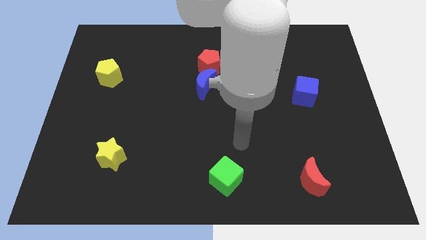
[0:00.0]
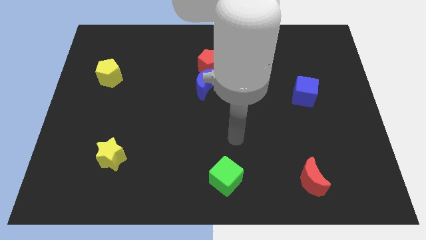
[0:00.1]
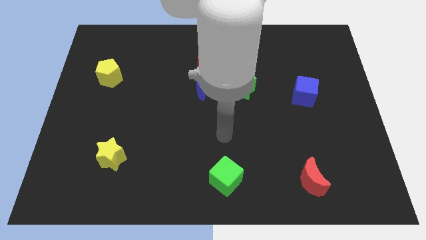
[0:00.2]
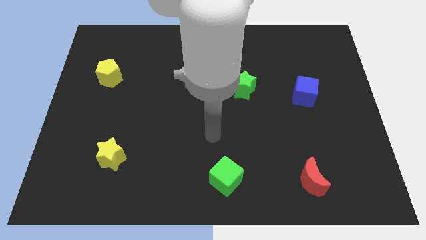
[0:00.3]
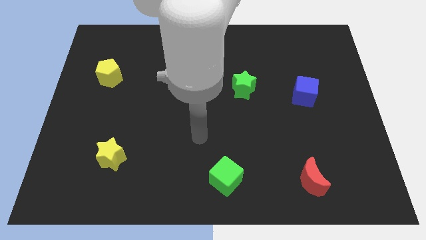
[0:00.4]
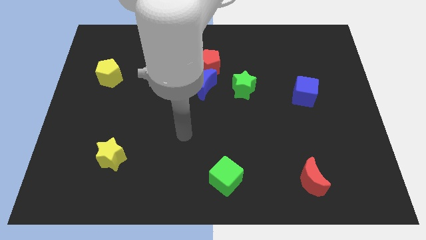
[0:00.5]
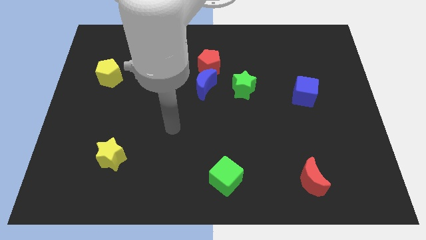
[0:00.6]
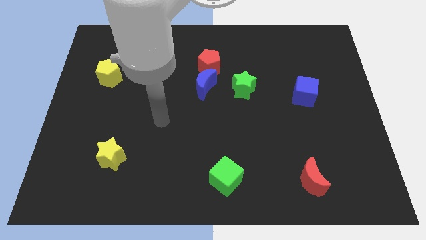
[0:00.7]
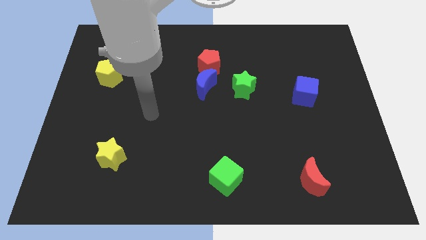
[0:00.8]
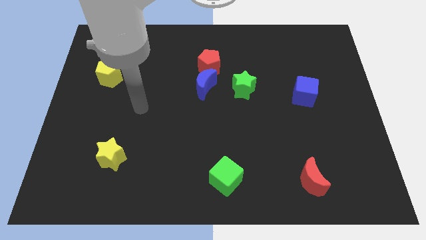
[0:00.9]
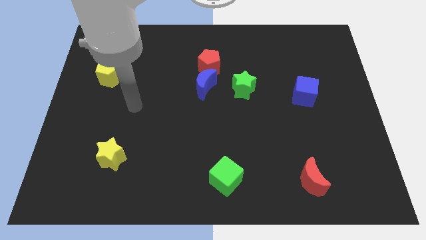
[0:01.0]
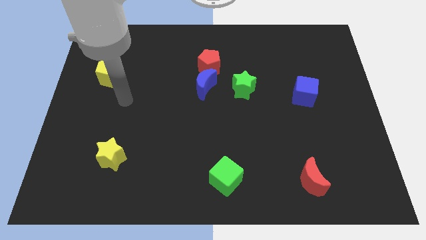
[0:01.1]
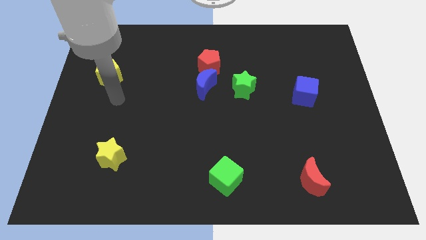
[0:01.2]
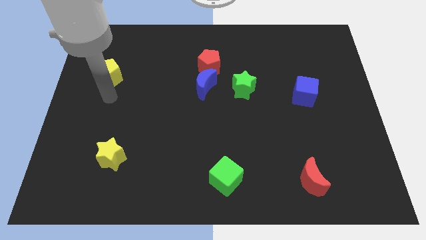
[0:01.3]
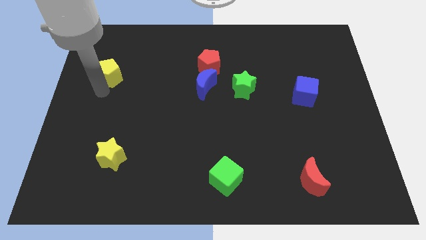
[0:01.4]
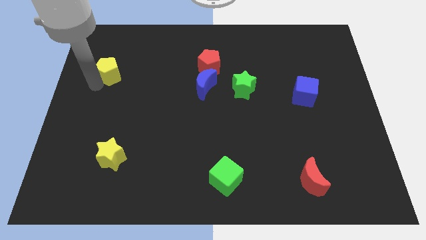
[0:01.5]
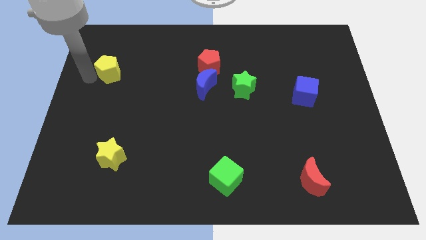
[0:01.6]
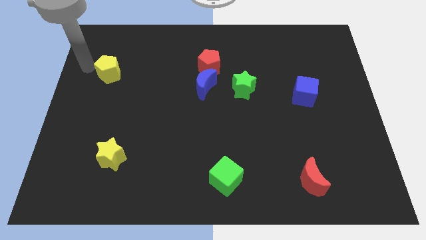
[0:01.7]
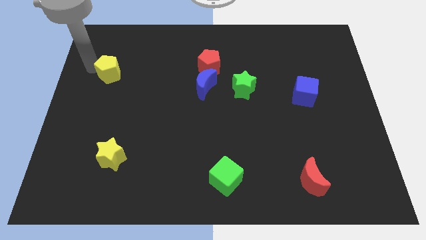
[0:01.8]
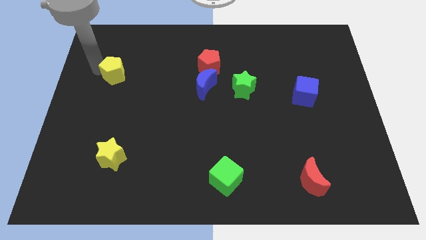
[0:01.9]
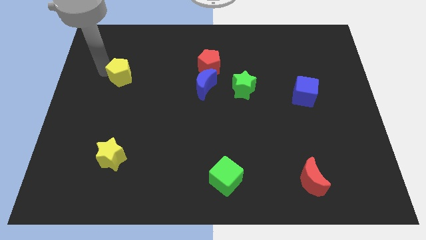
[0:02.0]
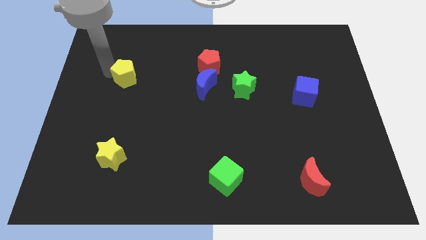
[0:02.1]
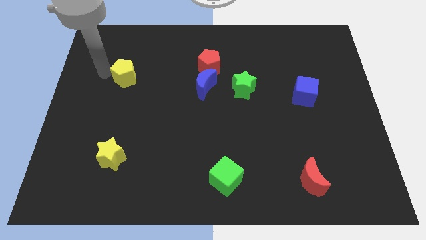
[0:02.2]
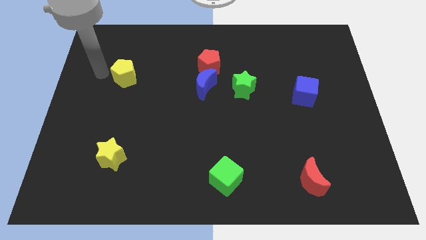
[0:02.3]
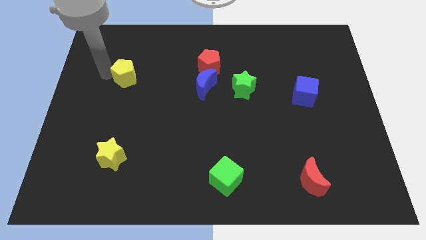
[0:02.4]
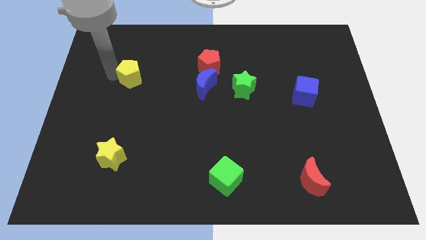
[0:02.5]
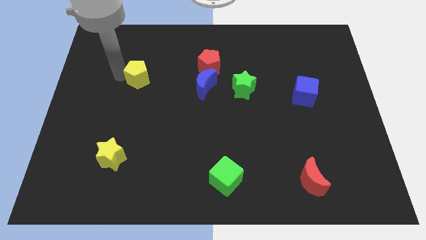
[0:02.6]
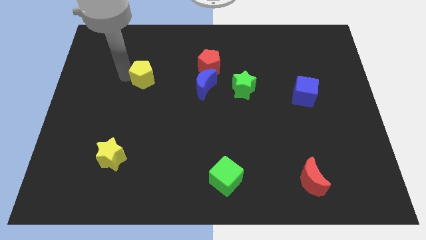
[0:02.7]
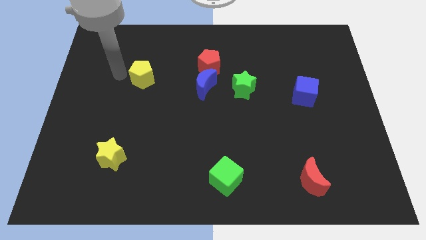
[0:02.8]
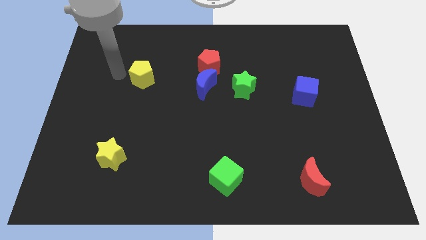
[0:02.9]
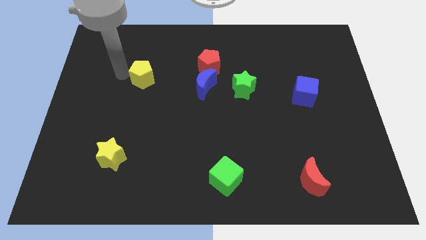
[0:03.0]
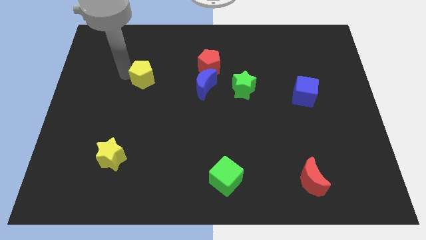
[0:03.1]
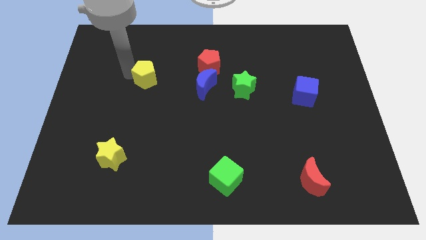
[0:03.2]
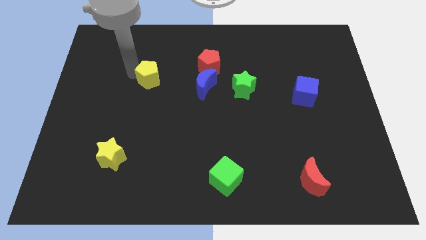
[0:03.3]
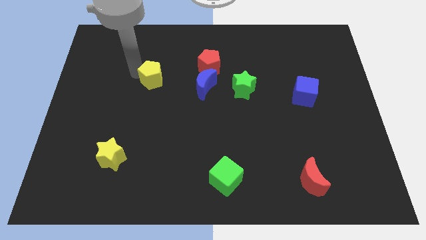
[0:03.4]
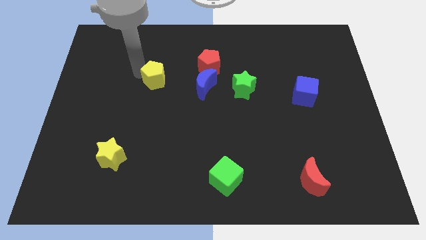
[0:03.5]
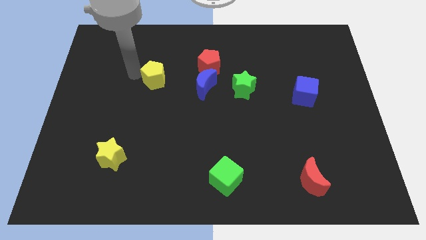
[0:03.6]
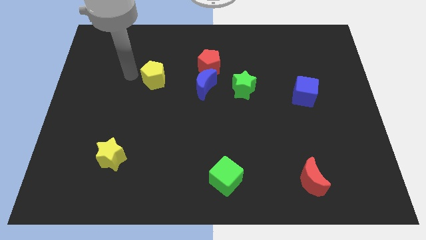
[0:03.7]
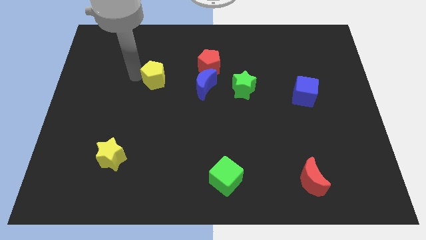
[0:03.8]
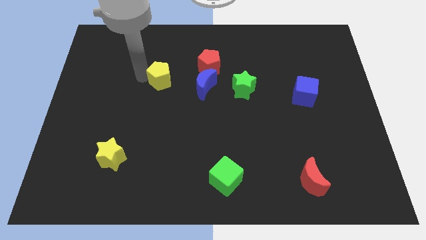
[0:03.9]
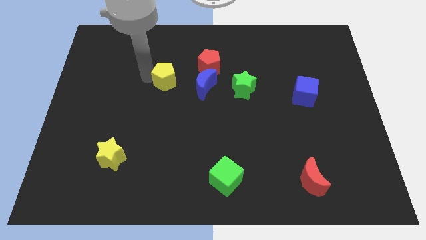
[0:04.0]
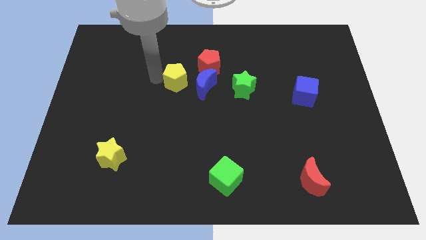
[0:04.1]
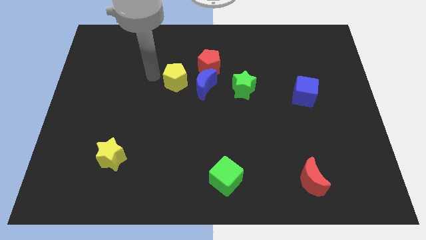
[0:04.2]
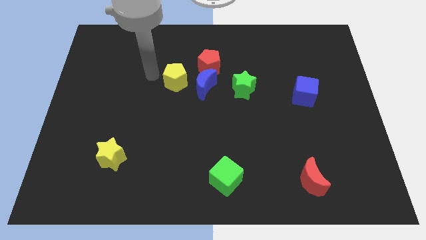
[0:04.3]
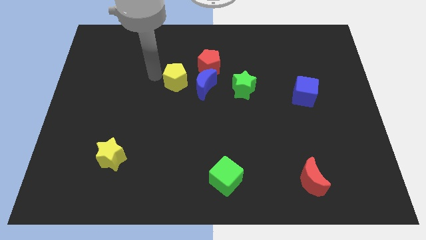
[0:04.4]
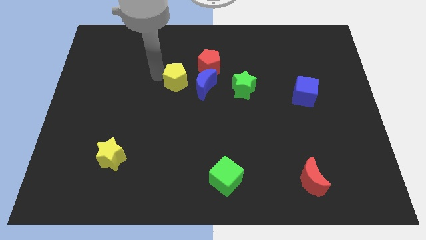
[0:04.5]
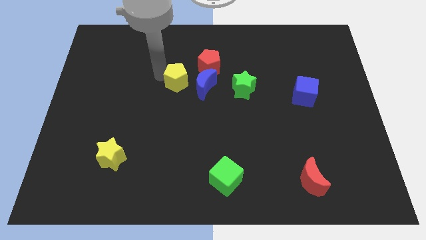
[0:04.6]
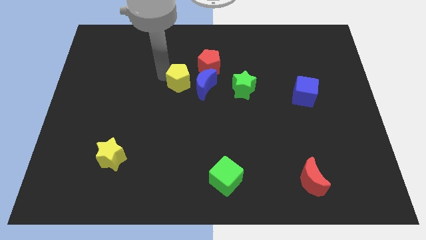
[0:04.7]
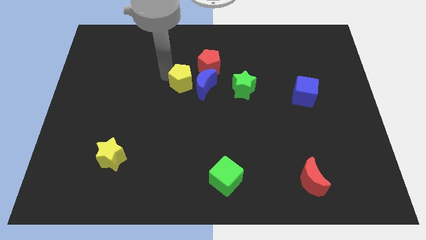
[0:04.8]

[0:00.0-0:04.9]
move the yellow pentagon close to the blue moon

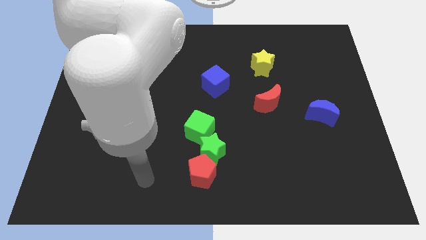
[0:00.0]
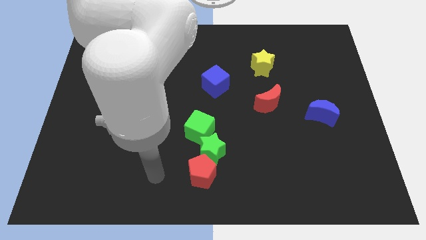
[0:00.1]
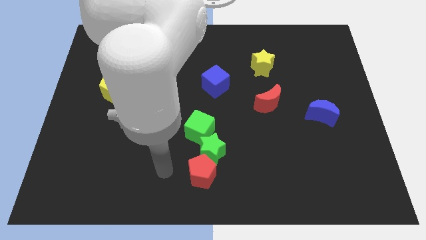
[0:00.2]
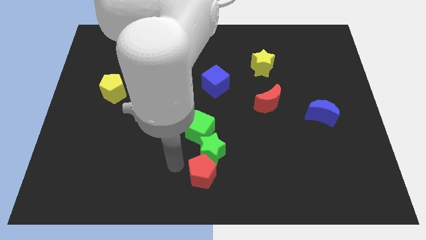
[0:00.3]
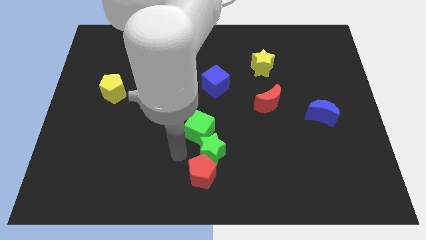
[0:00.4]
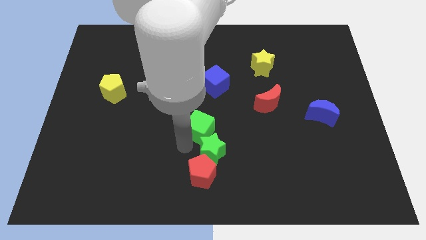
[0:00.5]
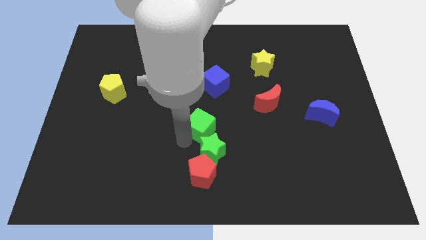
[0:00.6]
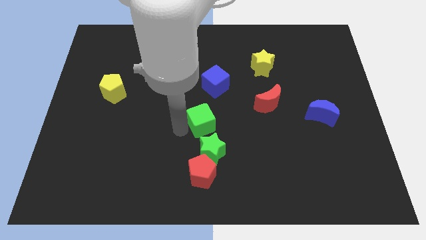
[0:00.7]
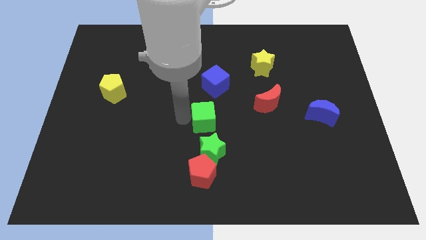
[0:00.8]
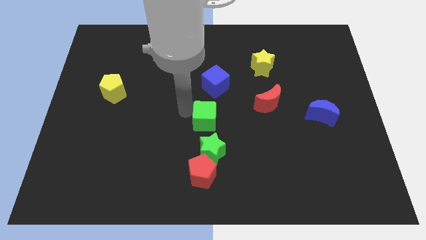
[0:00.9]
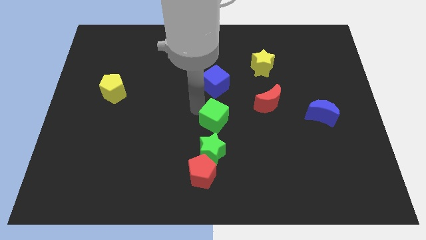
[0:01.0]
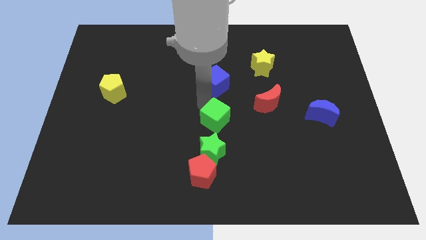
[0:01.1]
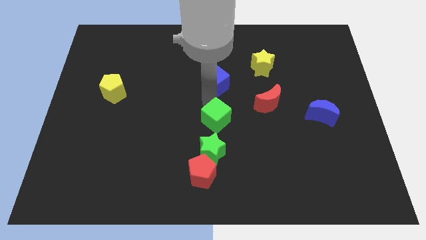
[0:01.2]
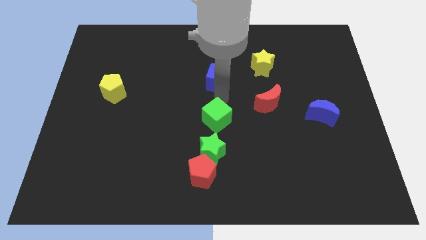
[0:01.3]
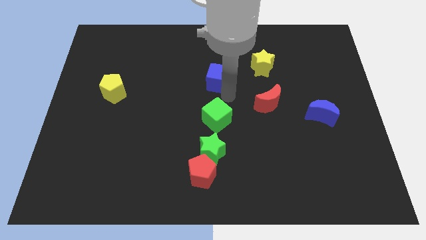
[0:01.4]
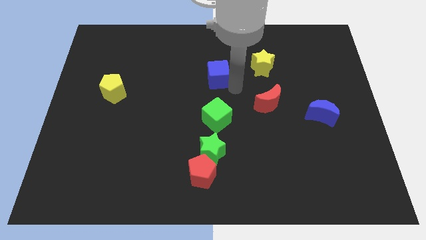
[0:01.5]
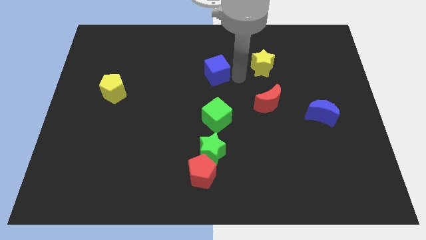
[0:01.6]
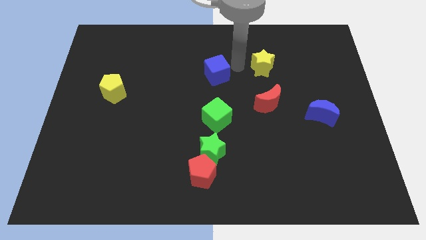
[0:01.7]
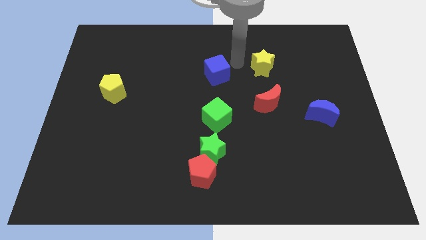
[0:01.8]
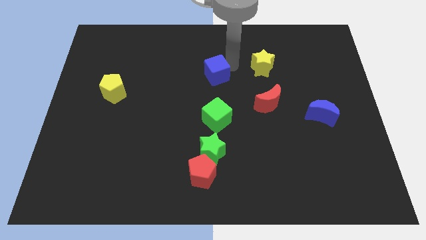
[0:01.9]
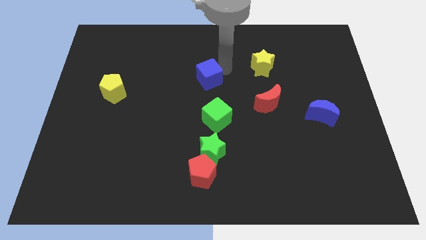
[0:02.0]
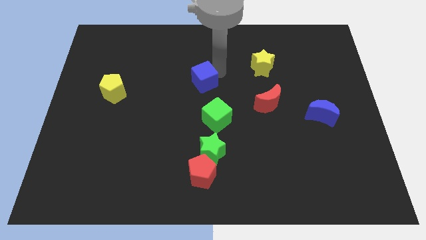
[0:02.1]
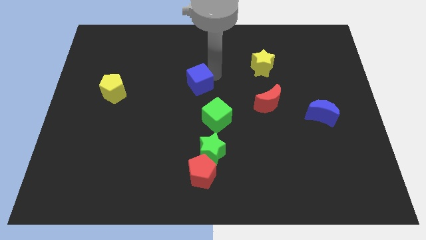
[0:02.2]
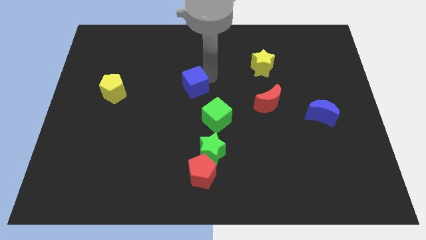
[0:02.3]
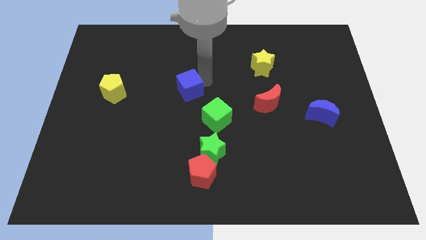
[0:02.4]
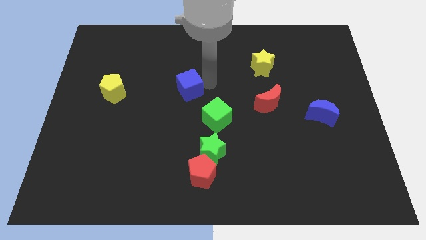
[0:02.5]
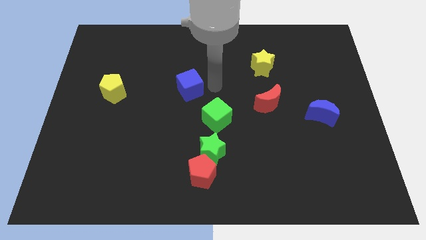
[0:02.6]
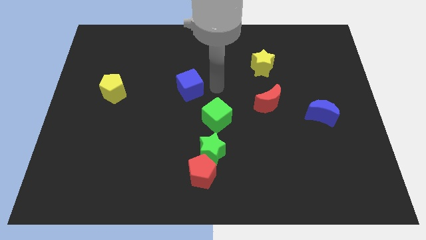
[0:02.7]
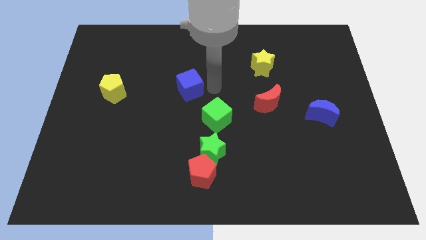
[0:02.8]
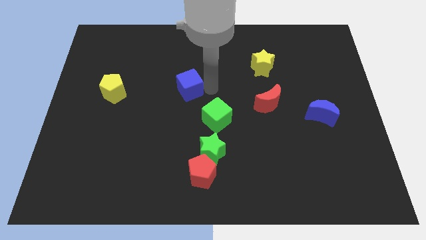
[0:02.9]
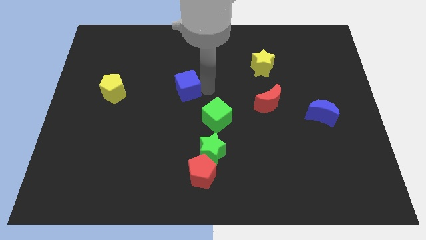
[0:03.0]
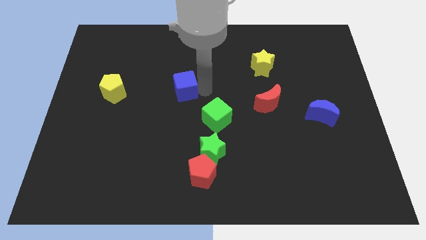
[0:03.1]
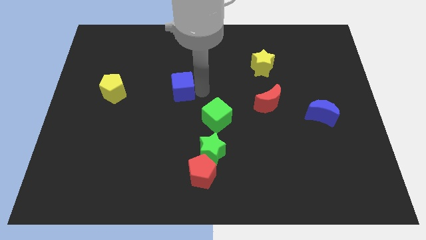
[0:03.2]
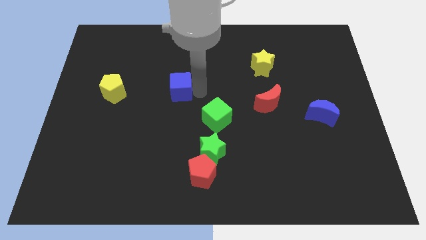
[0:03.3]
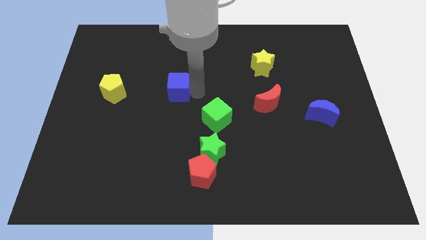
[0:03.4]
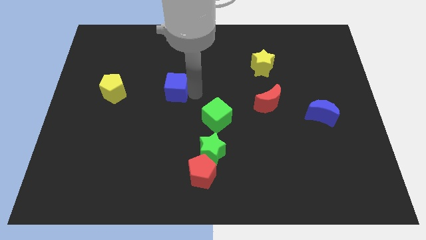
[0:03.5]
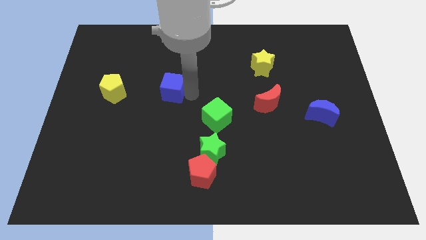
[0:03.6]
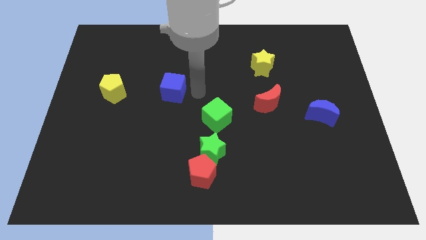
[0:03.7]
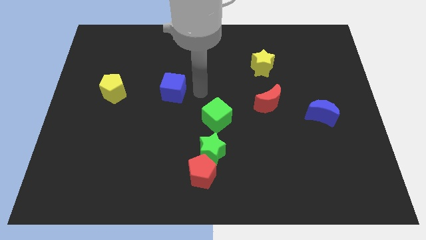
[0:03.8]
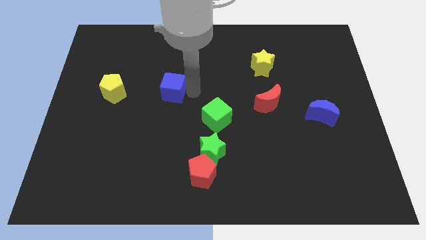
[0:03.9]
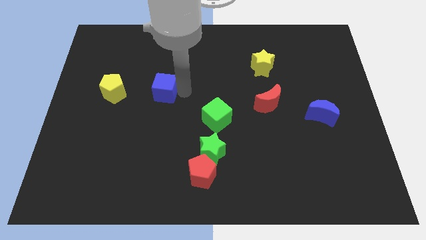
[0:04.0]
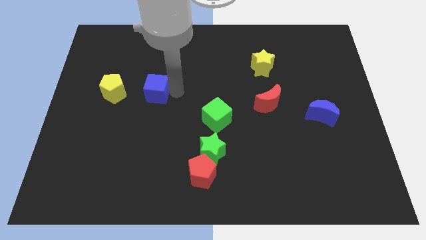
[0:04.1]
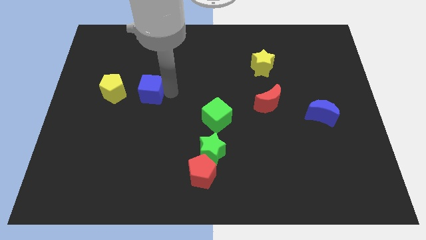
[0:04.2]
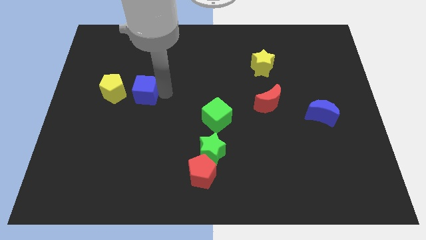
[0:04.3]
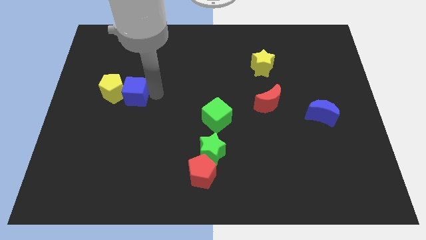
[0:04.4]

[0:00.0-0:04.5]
move the blue cube close to the yellow pentagon
